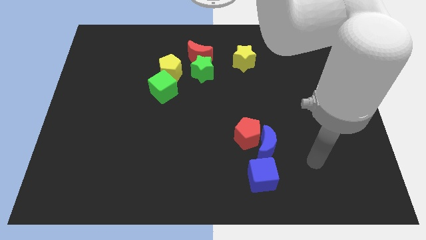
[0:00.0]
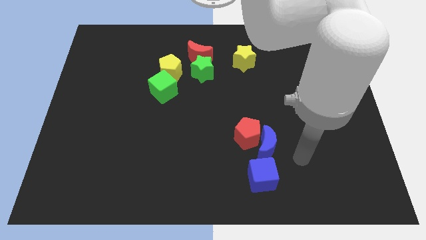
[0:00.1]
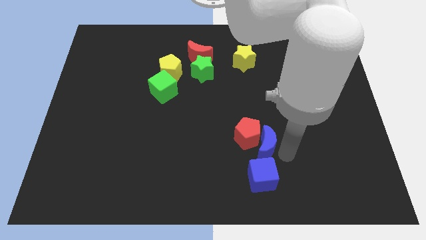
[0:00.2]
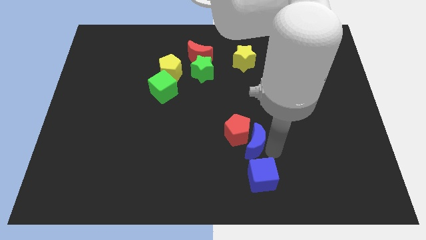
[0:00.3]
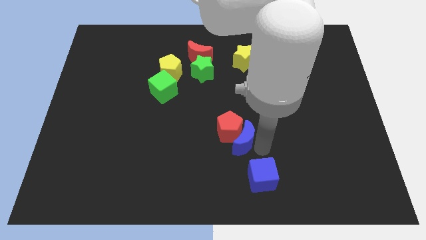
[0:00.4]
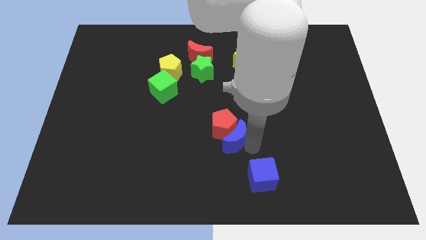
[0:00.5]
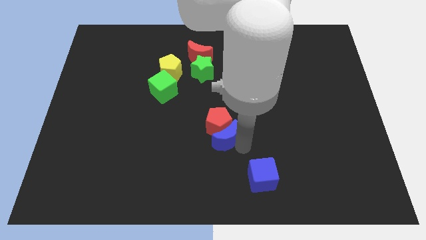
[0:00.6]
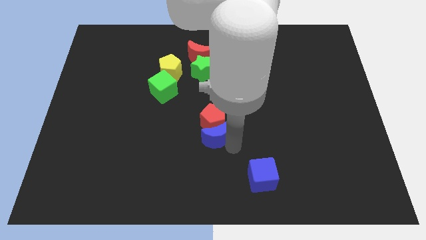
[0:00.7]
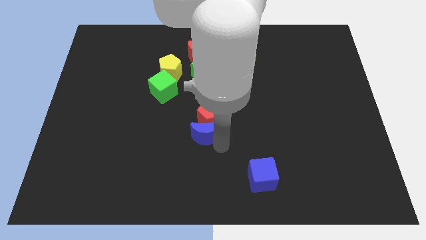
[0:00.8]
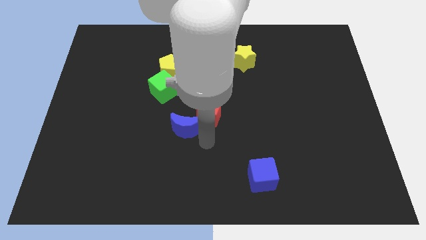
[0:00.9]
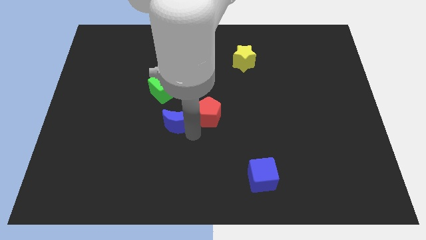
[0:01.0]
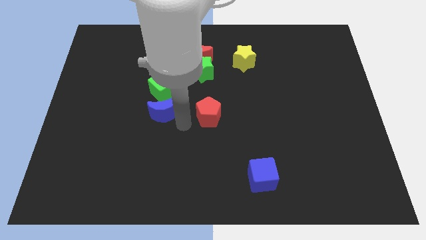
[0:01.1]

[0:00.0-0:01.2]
pull the red pentagon apart from the blue moon

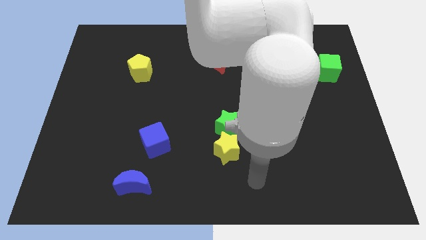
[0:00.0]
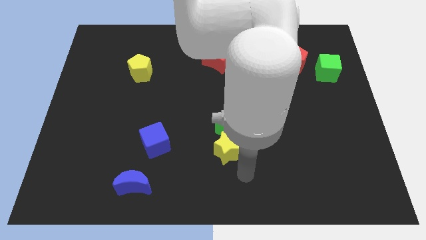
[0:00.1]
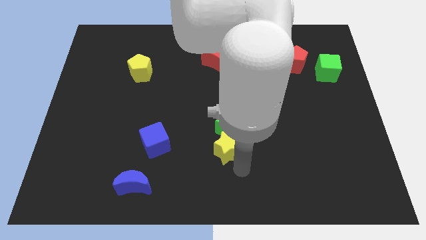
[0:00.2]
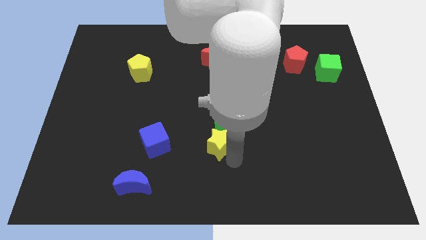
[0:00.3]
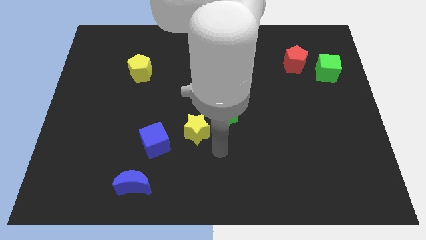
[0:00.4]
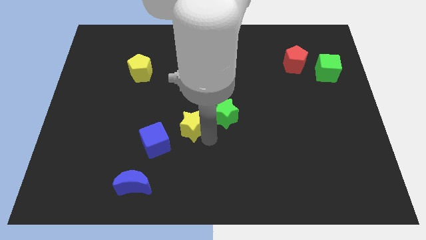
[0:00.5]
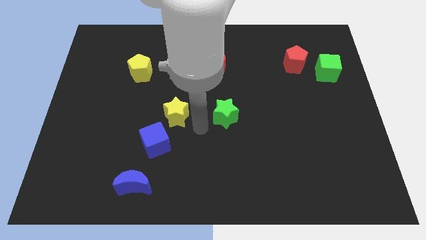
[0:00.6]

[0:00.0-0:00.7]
pull the green star apart from the yellow star

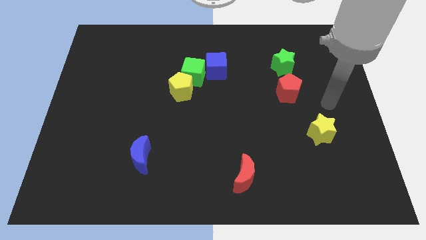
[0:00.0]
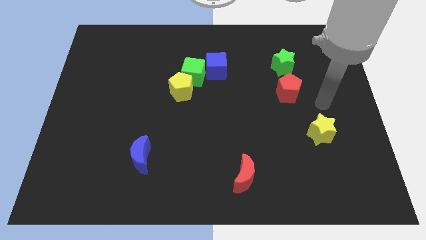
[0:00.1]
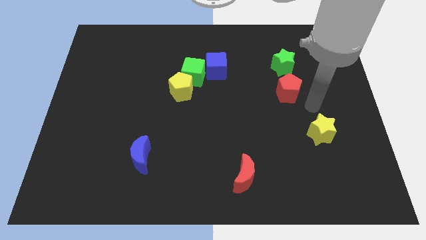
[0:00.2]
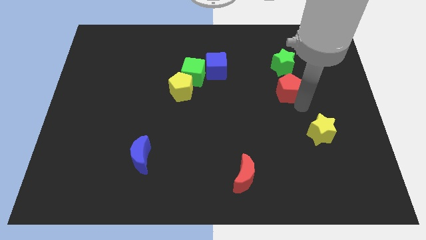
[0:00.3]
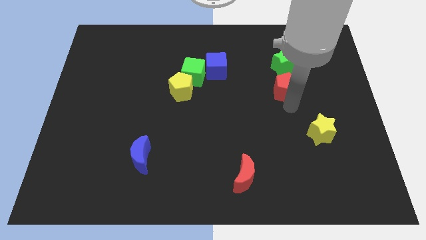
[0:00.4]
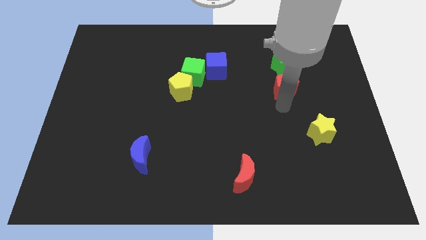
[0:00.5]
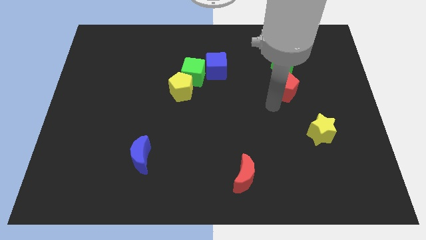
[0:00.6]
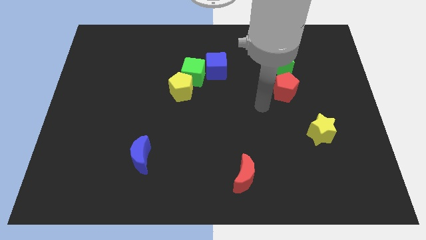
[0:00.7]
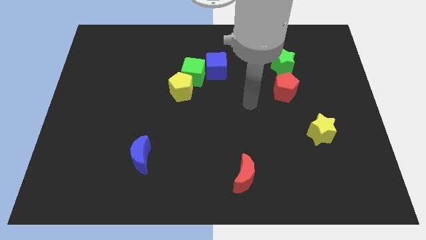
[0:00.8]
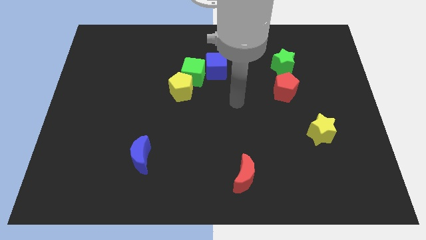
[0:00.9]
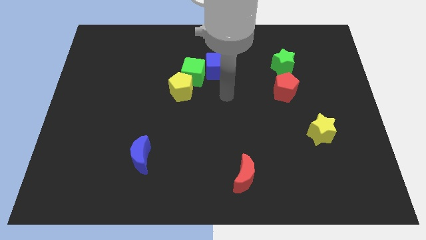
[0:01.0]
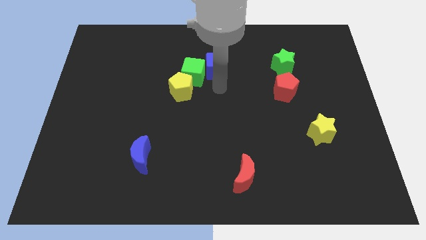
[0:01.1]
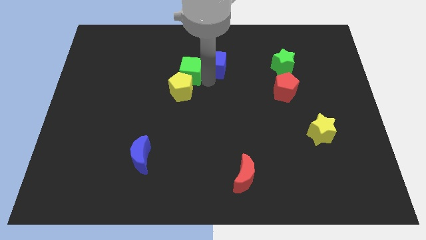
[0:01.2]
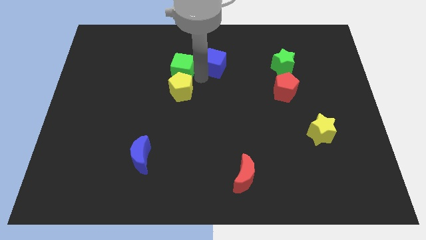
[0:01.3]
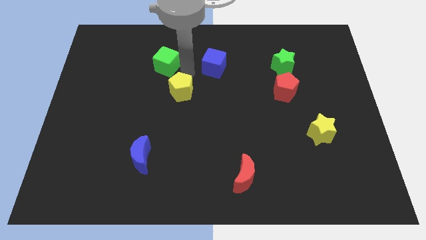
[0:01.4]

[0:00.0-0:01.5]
separate the yellow pentagon from the green cube

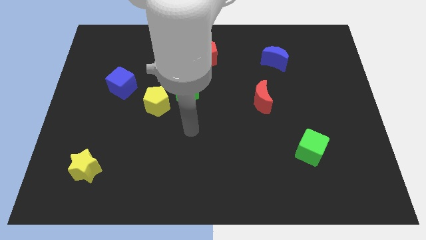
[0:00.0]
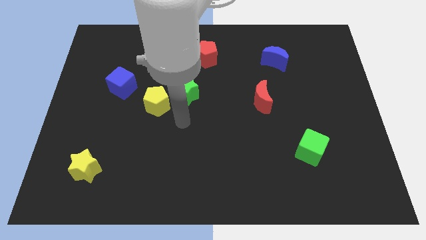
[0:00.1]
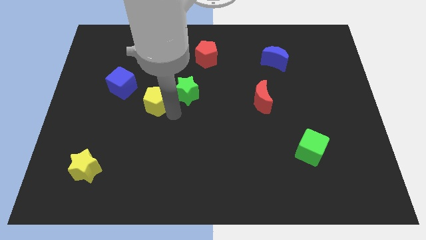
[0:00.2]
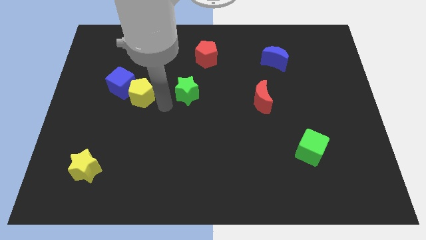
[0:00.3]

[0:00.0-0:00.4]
separate the green star from the yellow pentagon

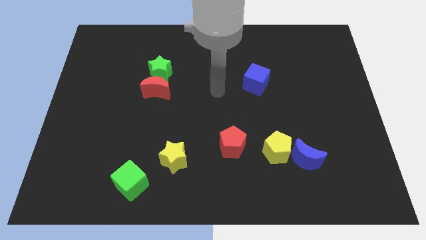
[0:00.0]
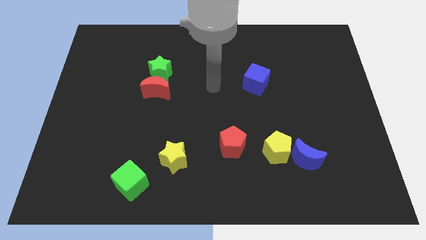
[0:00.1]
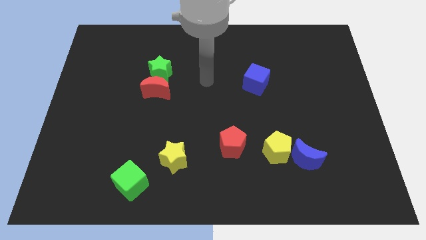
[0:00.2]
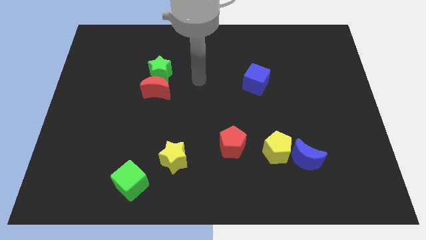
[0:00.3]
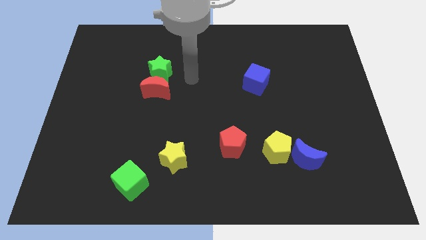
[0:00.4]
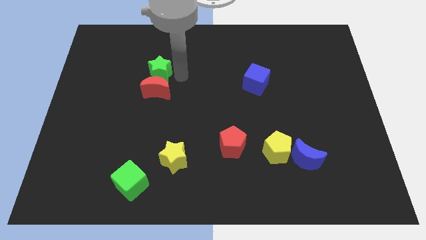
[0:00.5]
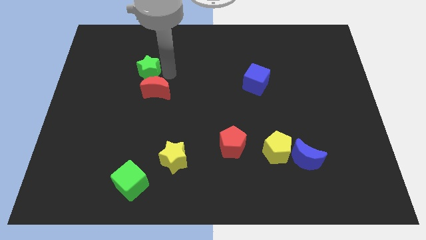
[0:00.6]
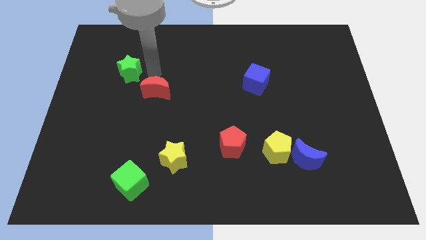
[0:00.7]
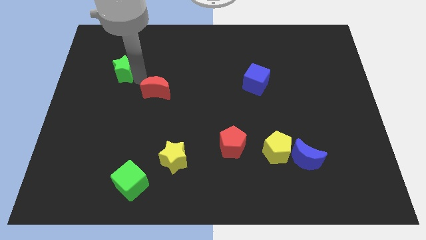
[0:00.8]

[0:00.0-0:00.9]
move the red moon away from the green star

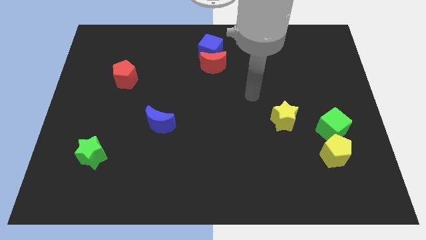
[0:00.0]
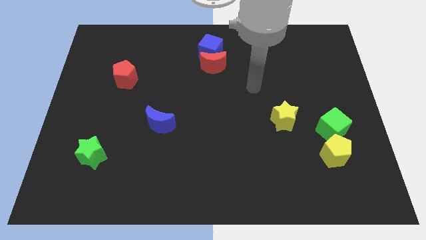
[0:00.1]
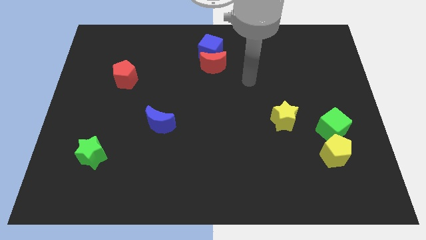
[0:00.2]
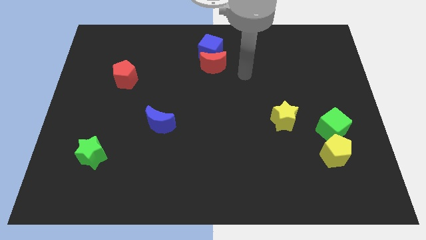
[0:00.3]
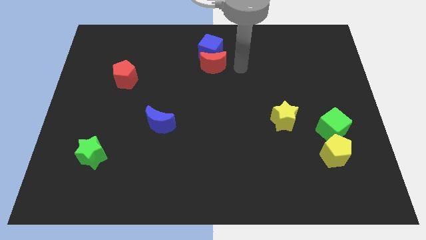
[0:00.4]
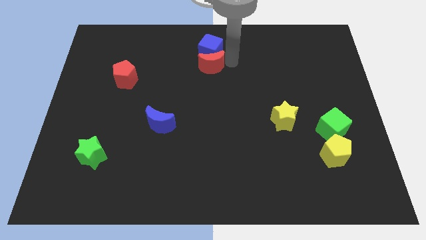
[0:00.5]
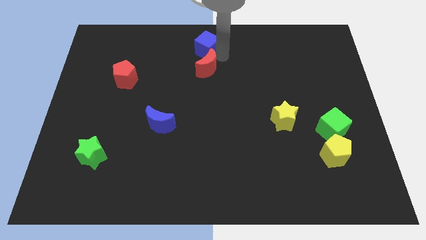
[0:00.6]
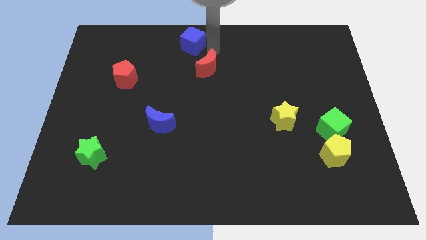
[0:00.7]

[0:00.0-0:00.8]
separate the red moon from the blue cube

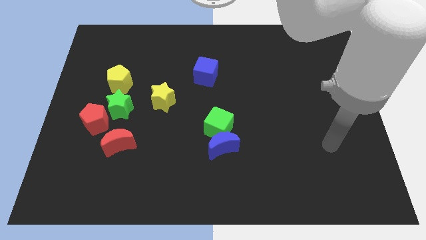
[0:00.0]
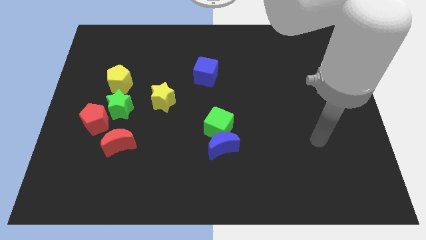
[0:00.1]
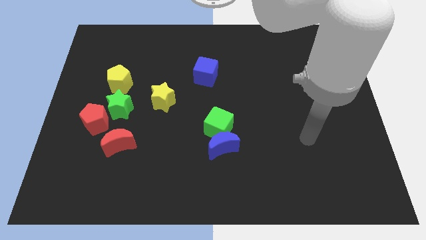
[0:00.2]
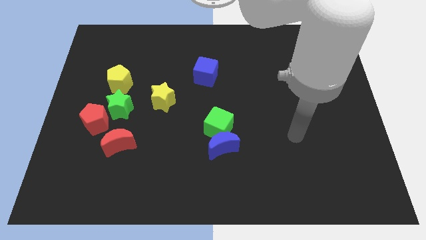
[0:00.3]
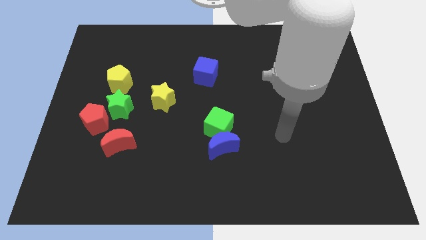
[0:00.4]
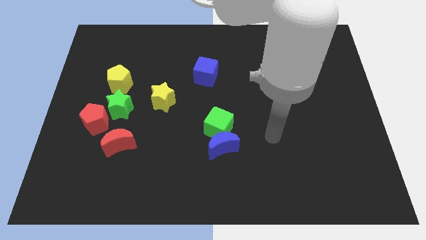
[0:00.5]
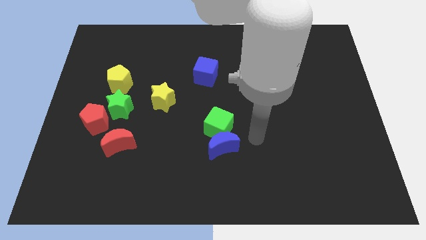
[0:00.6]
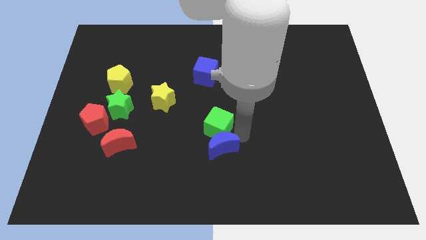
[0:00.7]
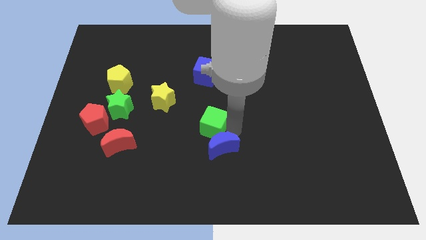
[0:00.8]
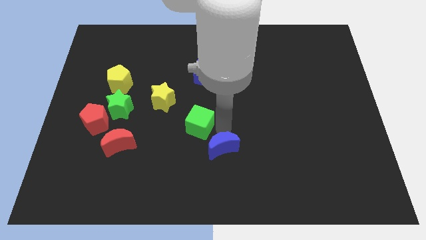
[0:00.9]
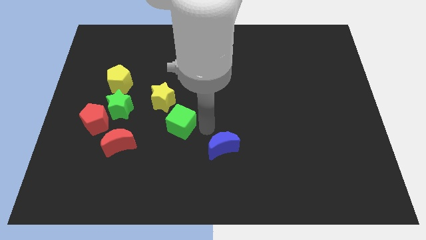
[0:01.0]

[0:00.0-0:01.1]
separate the blue moon from the green cube

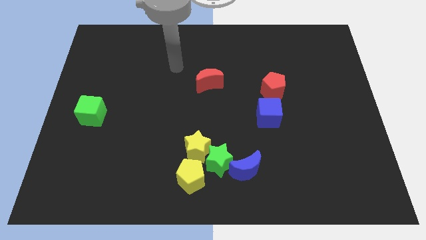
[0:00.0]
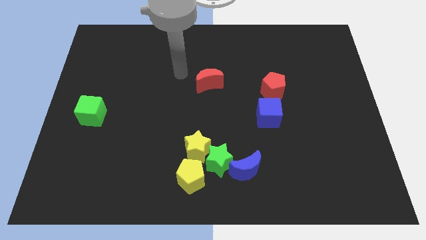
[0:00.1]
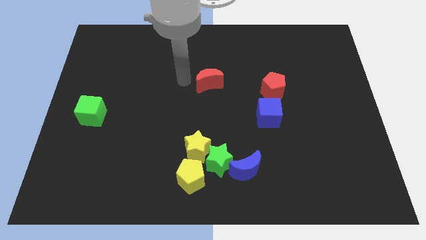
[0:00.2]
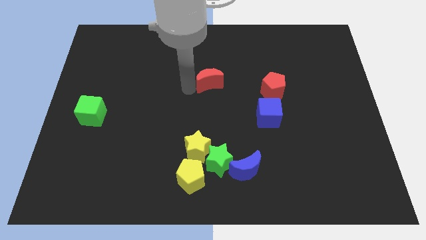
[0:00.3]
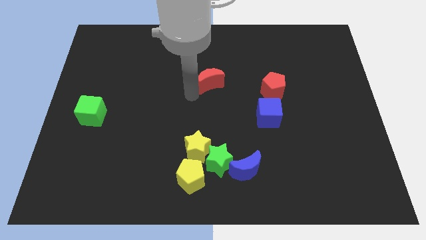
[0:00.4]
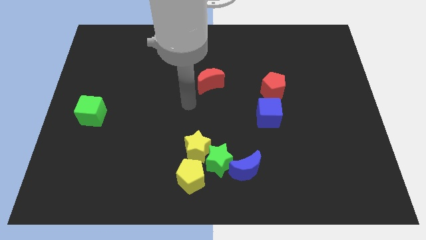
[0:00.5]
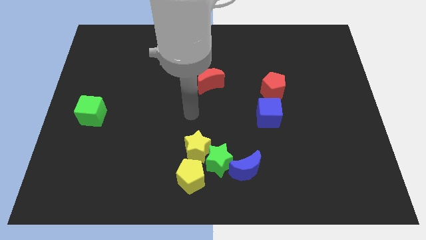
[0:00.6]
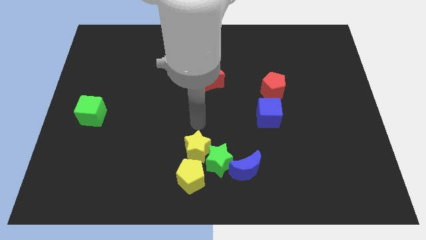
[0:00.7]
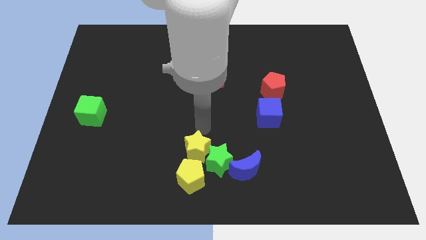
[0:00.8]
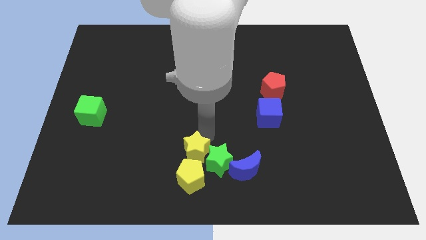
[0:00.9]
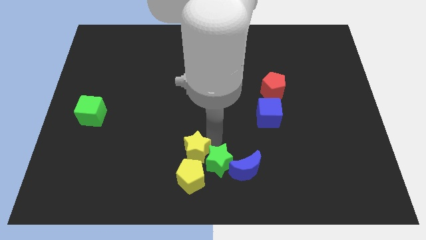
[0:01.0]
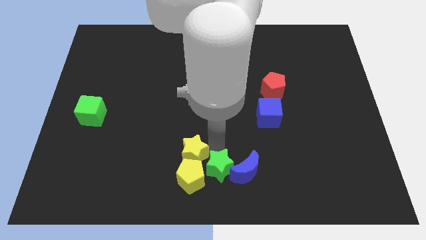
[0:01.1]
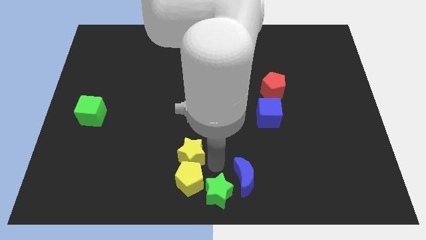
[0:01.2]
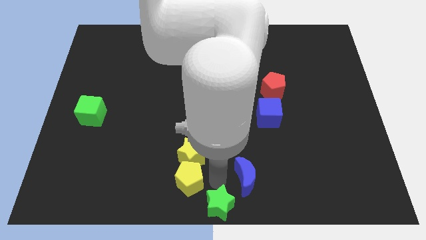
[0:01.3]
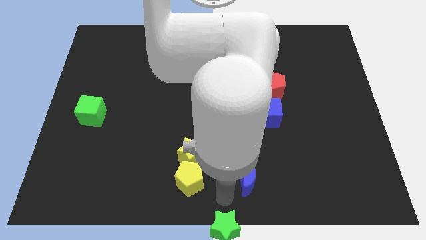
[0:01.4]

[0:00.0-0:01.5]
pull the blue moon apart from the green star

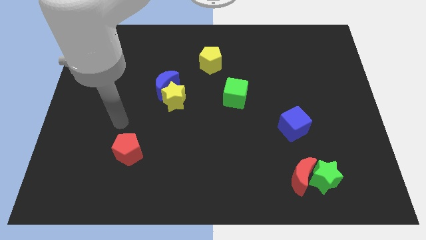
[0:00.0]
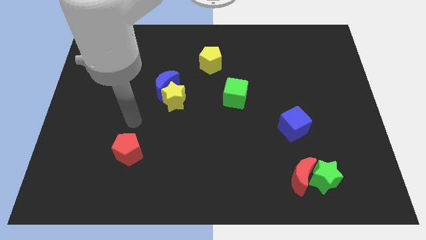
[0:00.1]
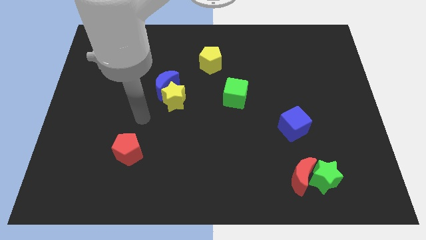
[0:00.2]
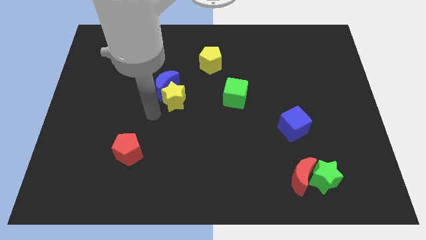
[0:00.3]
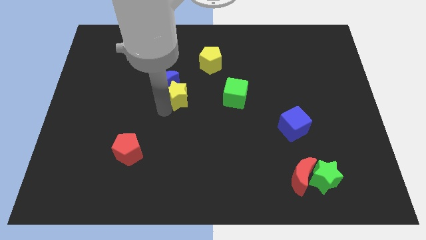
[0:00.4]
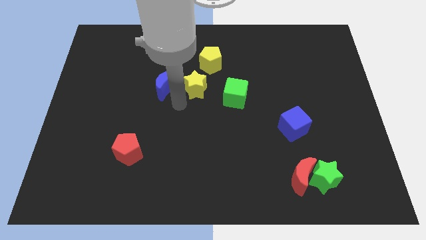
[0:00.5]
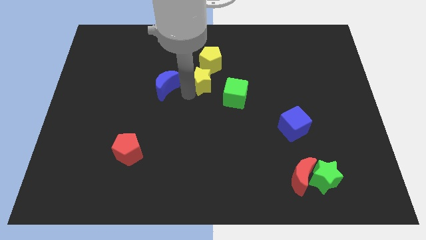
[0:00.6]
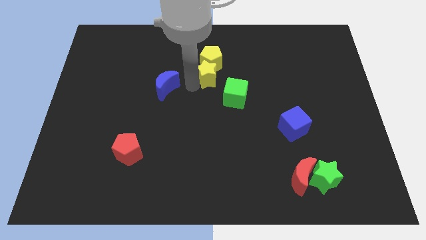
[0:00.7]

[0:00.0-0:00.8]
separate the blue moon from the yellow star

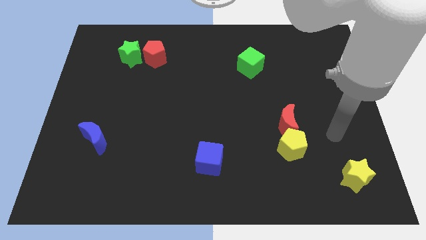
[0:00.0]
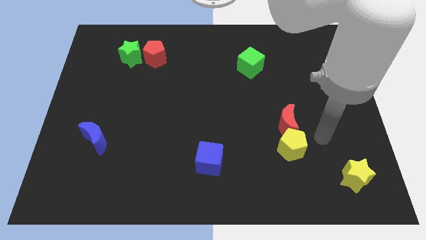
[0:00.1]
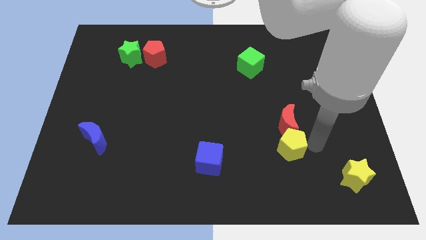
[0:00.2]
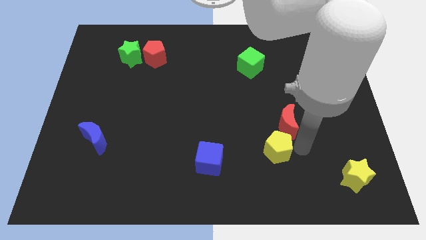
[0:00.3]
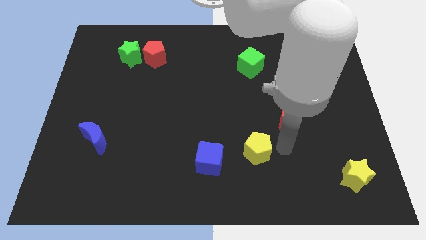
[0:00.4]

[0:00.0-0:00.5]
pull the red moon apart from the yellow pentagon

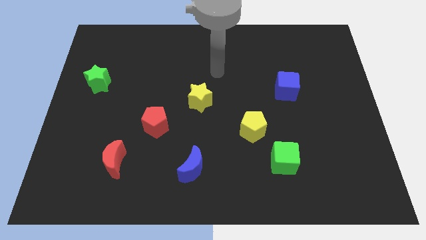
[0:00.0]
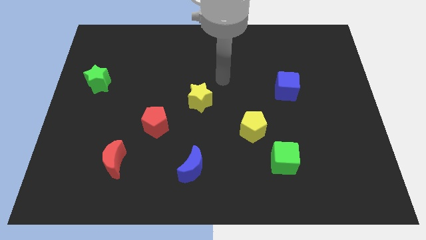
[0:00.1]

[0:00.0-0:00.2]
pull the green cube apart from the yellow pentagon
